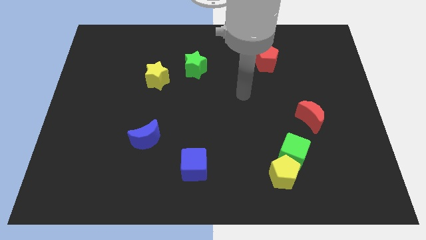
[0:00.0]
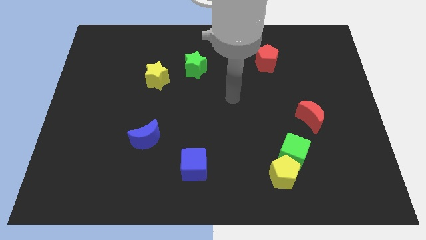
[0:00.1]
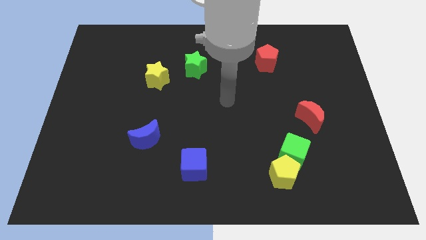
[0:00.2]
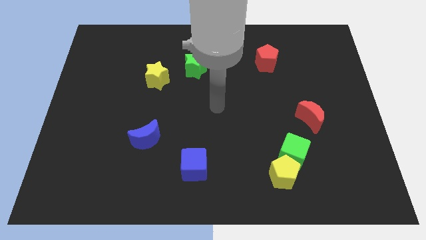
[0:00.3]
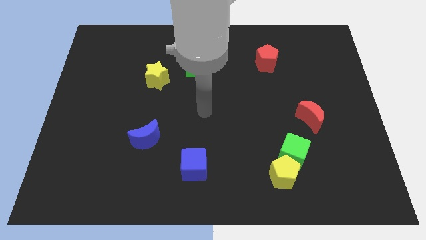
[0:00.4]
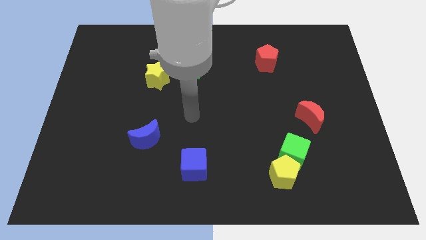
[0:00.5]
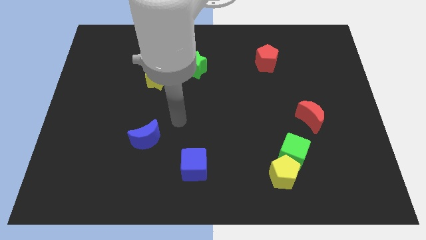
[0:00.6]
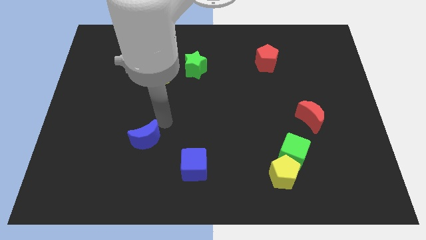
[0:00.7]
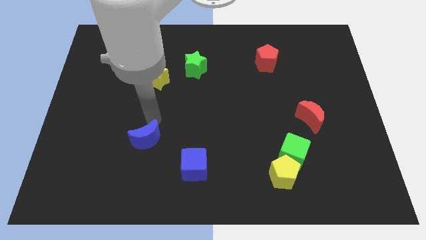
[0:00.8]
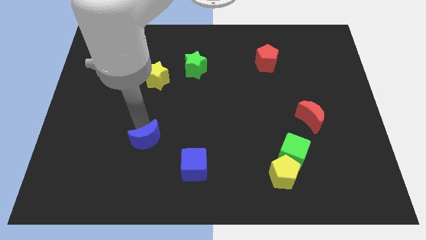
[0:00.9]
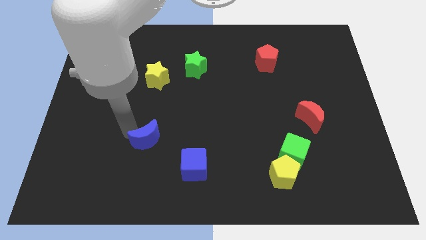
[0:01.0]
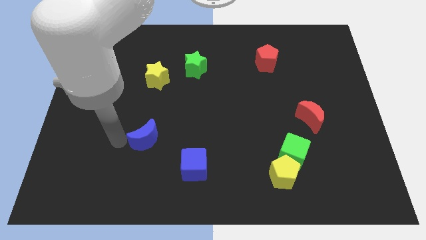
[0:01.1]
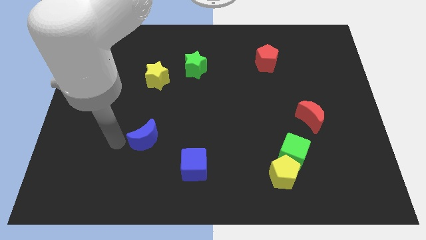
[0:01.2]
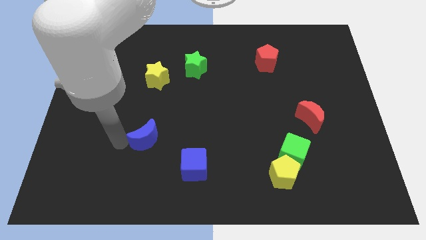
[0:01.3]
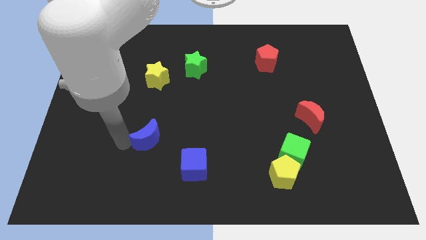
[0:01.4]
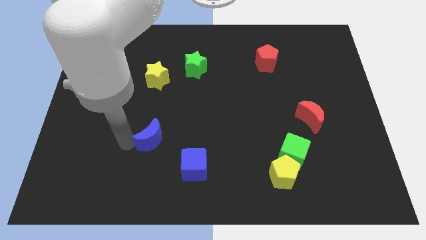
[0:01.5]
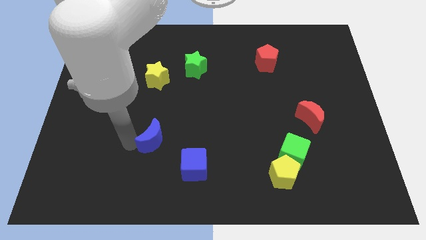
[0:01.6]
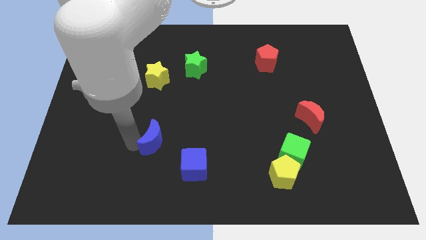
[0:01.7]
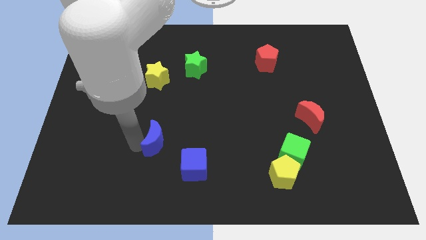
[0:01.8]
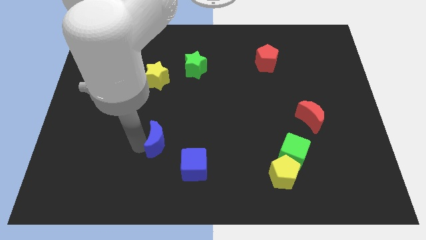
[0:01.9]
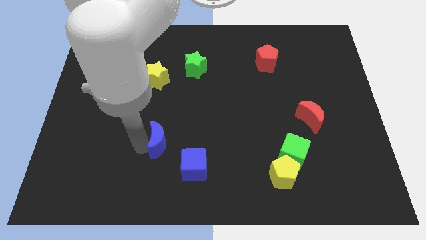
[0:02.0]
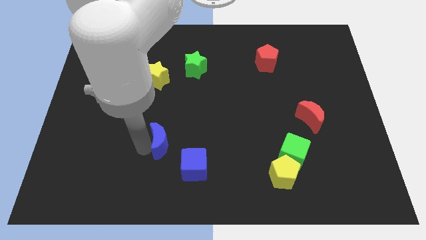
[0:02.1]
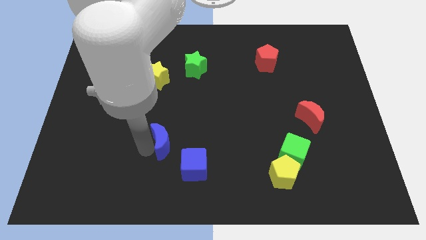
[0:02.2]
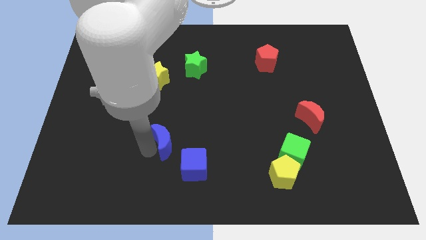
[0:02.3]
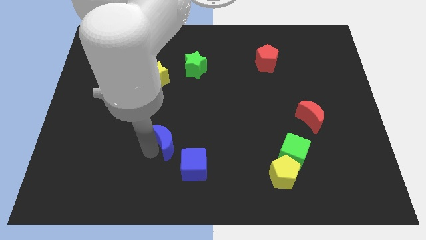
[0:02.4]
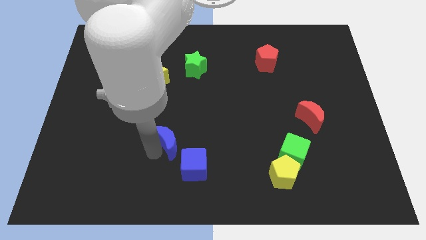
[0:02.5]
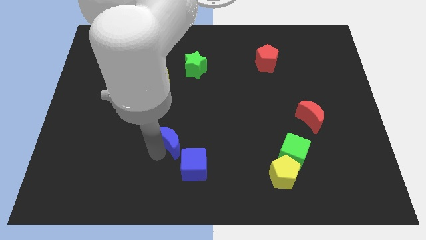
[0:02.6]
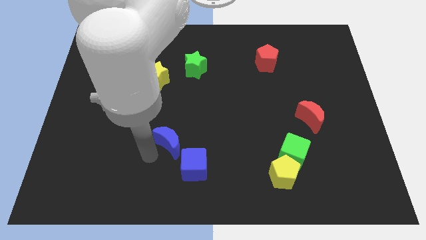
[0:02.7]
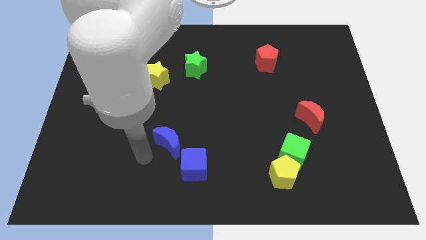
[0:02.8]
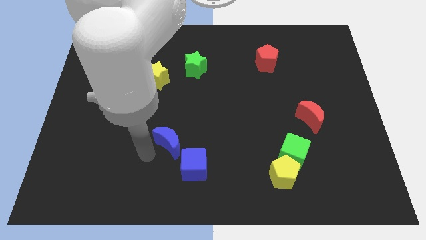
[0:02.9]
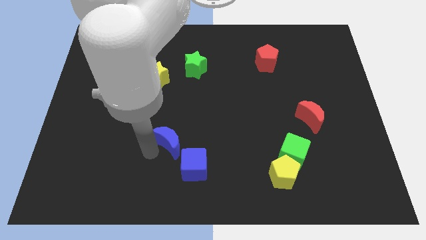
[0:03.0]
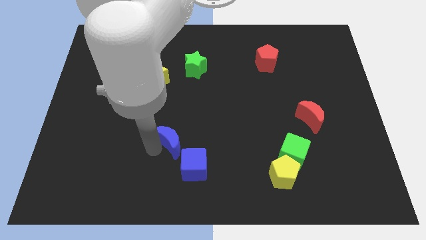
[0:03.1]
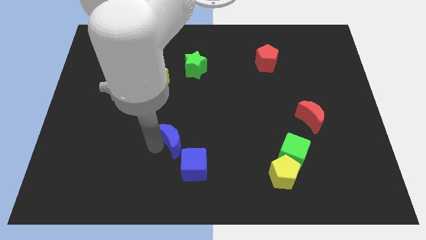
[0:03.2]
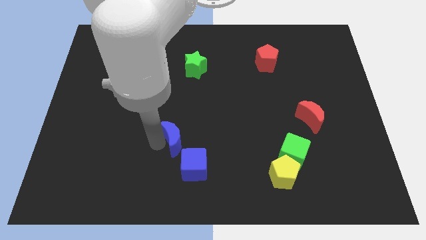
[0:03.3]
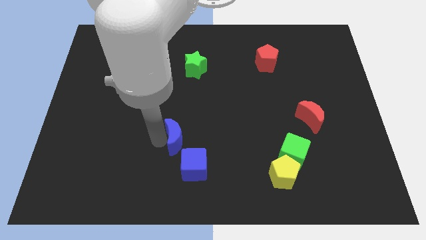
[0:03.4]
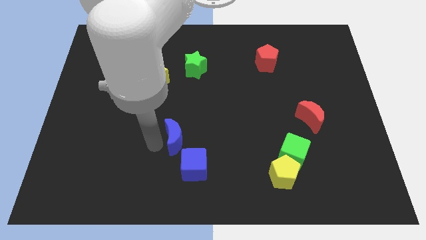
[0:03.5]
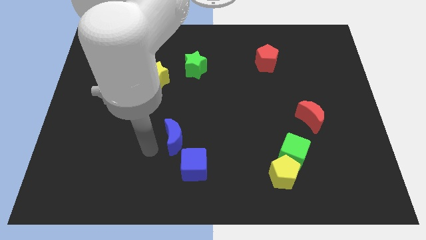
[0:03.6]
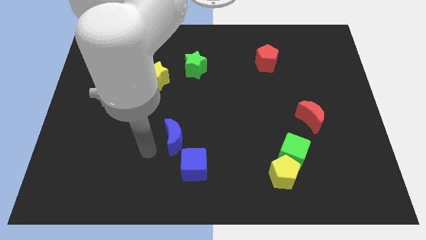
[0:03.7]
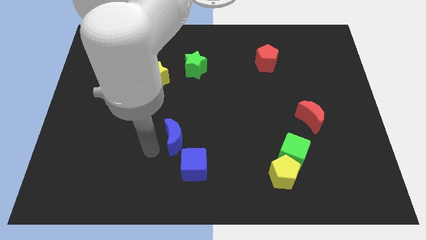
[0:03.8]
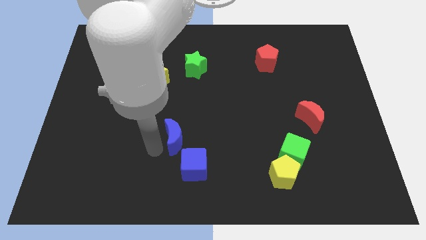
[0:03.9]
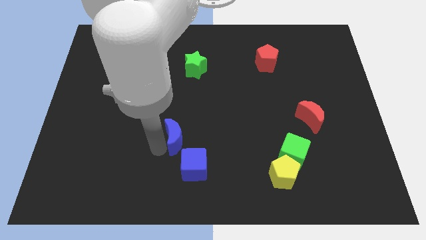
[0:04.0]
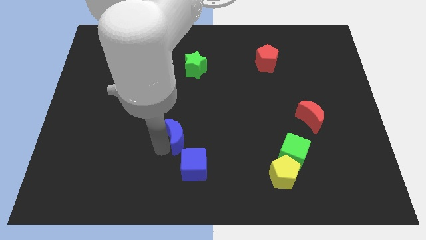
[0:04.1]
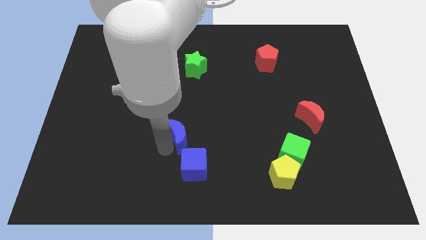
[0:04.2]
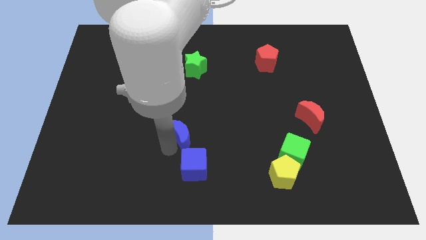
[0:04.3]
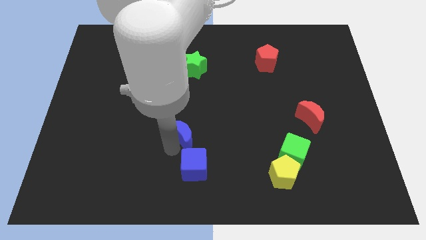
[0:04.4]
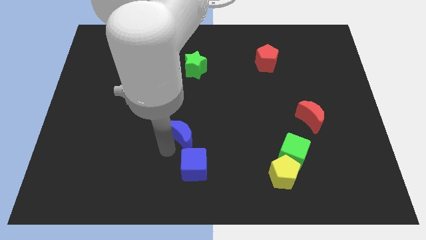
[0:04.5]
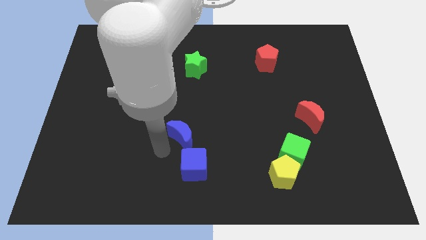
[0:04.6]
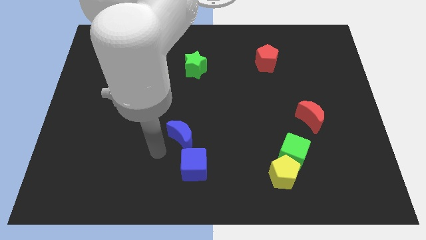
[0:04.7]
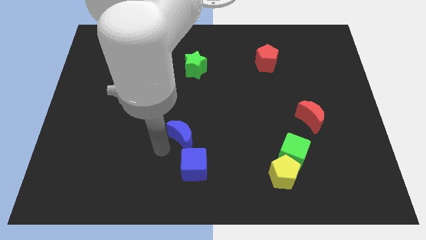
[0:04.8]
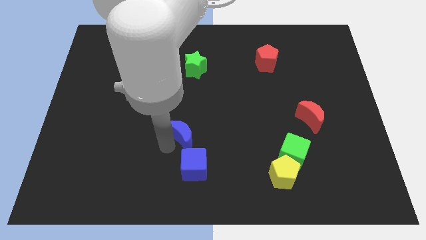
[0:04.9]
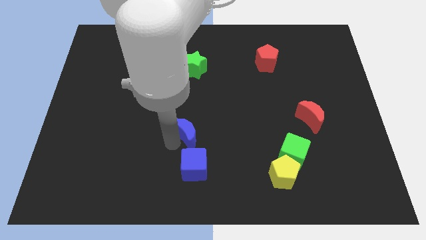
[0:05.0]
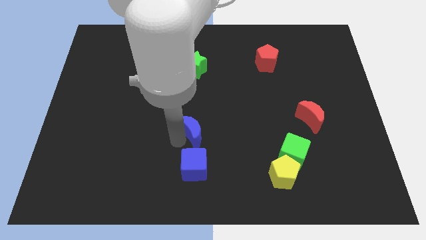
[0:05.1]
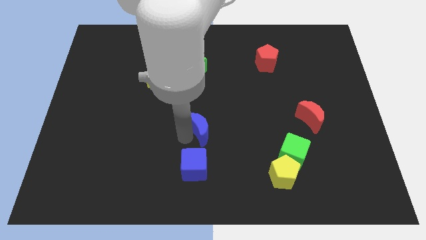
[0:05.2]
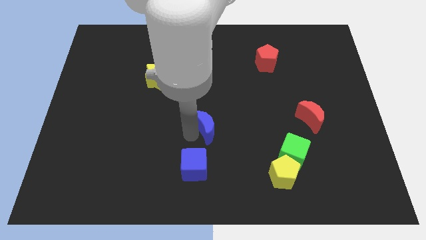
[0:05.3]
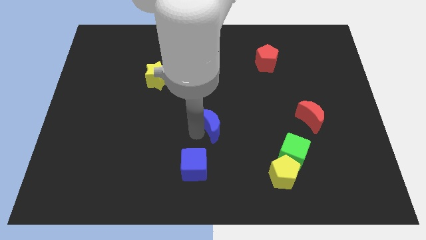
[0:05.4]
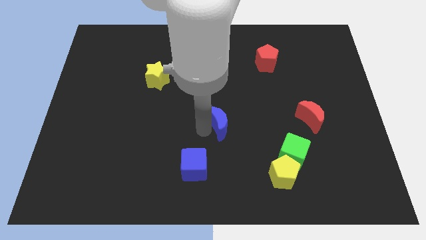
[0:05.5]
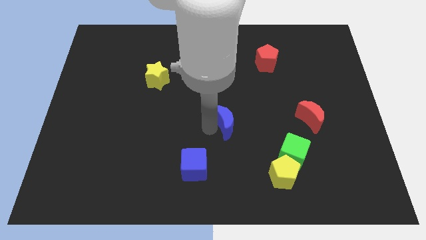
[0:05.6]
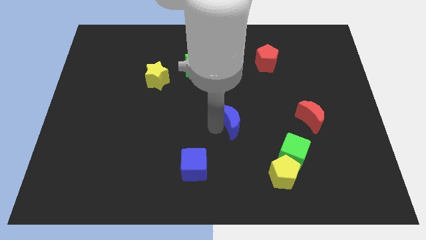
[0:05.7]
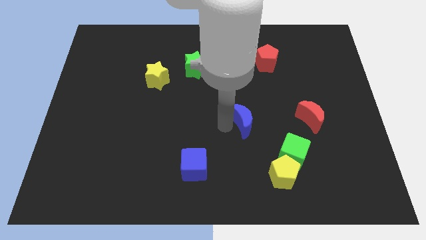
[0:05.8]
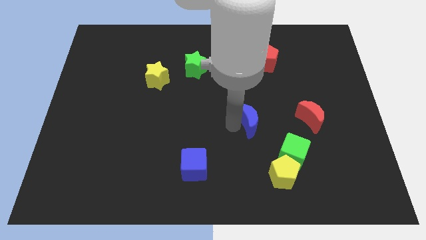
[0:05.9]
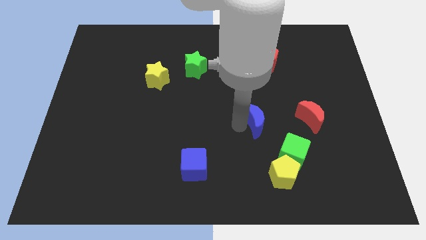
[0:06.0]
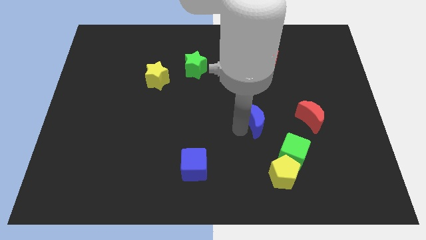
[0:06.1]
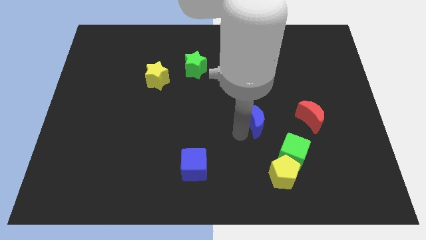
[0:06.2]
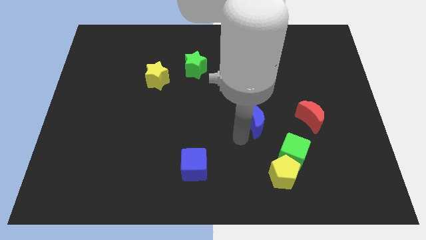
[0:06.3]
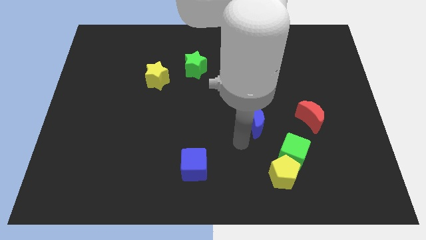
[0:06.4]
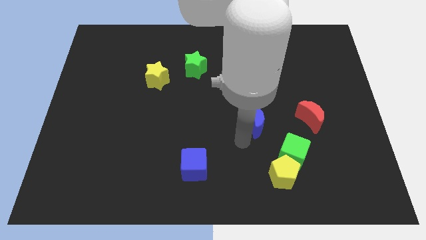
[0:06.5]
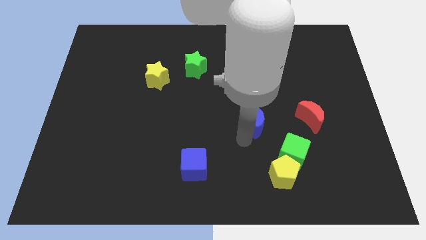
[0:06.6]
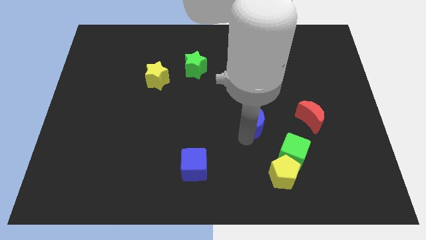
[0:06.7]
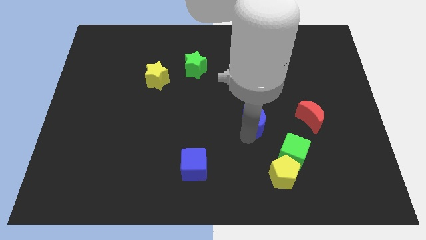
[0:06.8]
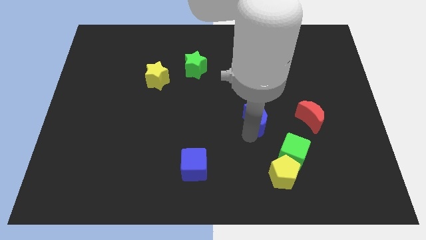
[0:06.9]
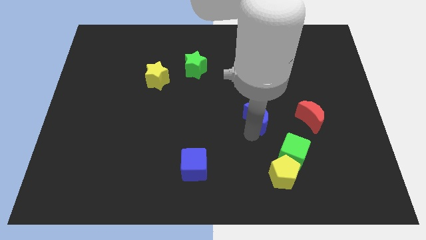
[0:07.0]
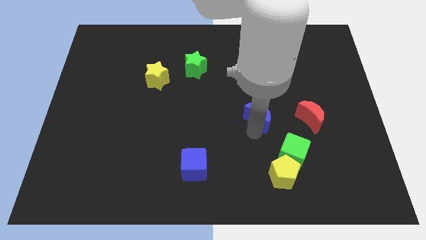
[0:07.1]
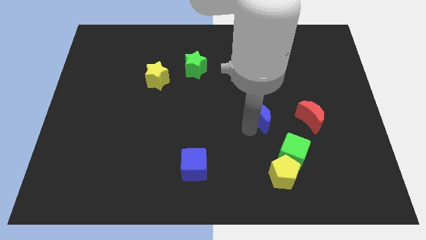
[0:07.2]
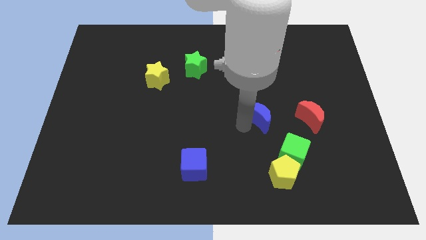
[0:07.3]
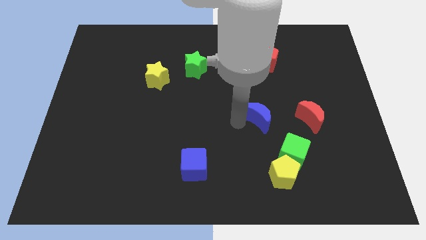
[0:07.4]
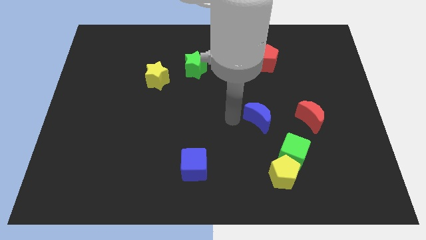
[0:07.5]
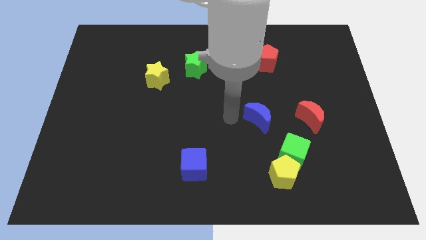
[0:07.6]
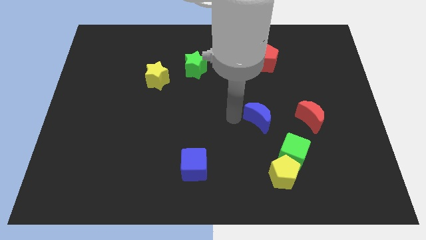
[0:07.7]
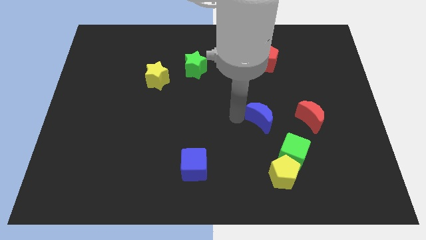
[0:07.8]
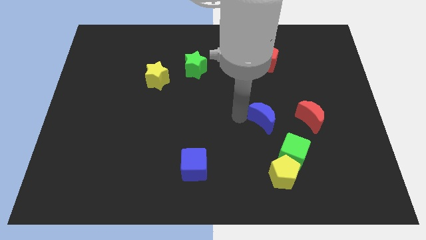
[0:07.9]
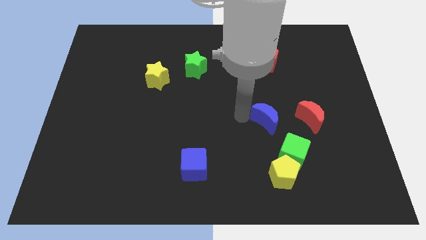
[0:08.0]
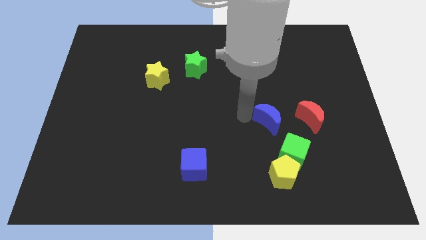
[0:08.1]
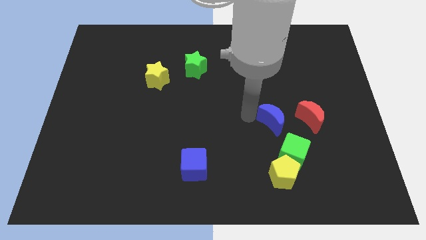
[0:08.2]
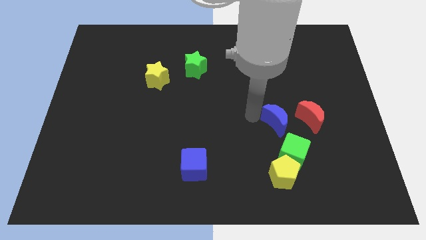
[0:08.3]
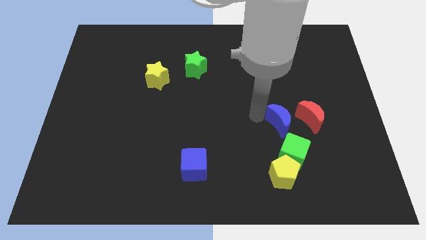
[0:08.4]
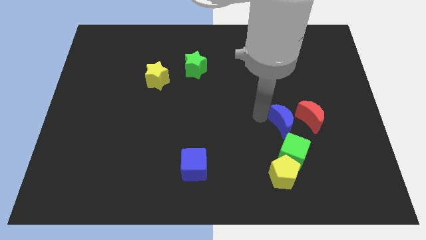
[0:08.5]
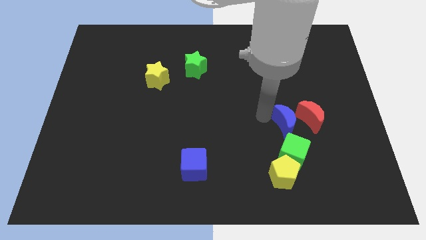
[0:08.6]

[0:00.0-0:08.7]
slide the blue moon close to the red moon
